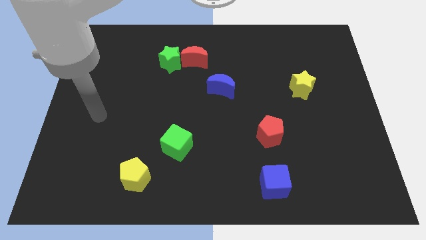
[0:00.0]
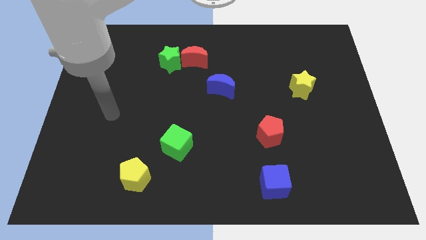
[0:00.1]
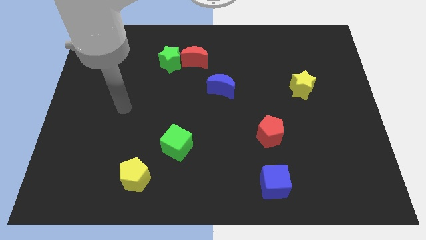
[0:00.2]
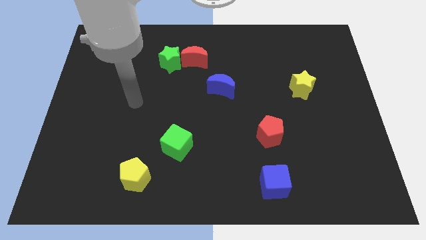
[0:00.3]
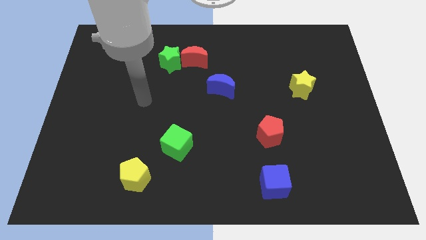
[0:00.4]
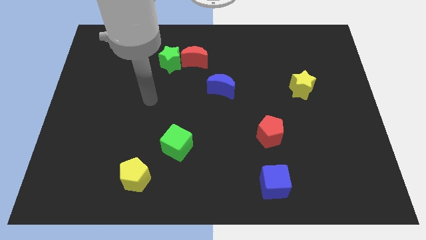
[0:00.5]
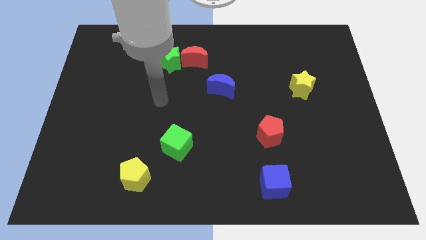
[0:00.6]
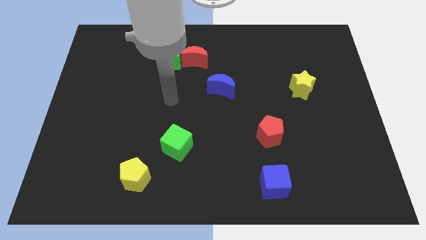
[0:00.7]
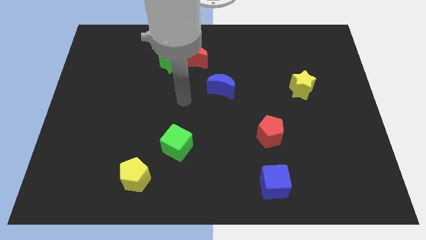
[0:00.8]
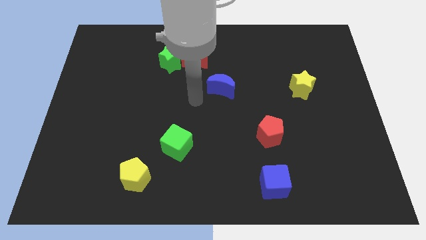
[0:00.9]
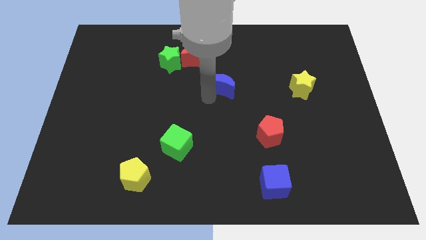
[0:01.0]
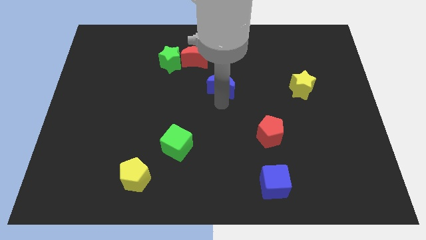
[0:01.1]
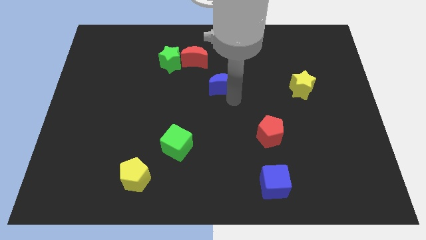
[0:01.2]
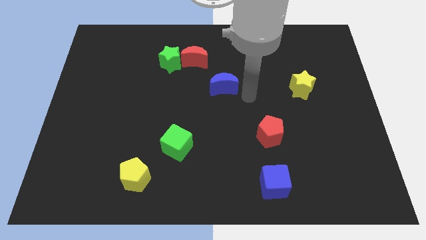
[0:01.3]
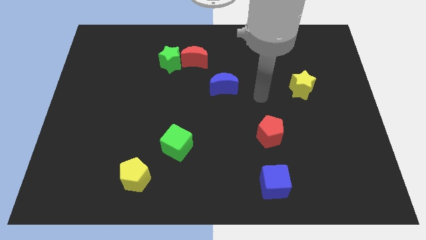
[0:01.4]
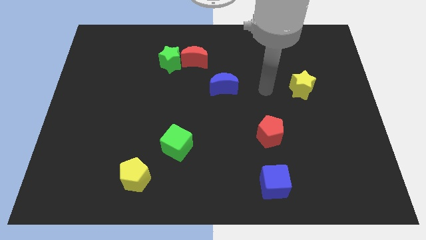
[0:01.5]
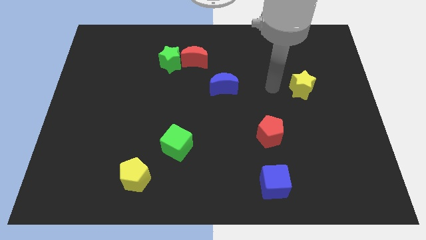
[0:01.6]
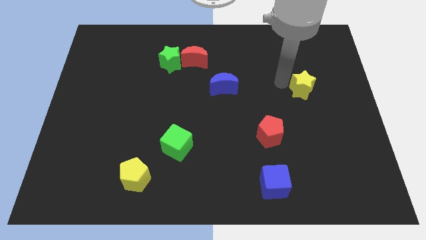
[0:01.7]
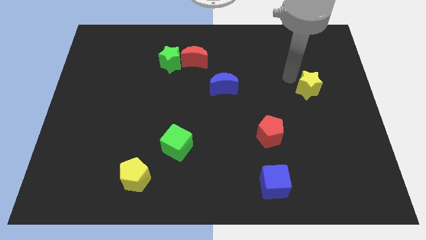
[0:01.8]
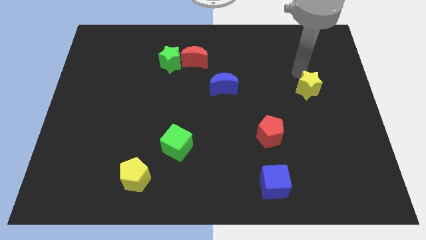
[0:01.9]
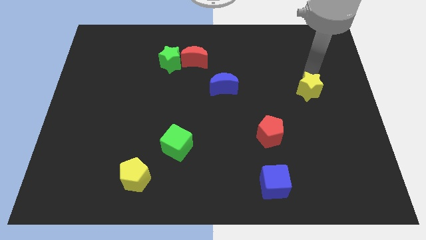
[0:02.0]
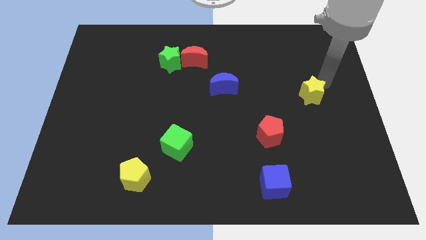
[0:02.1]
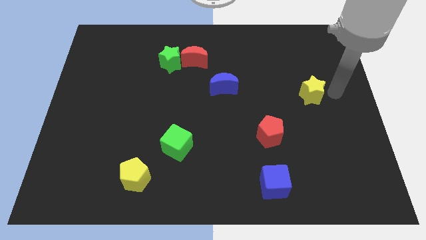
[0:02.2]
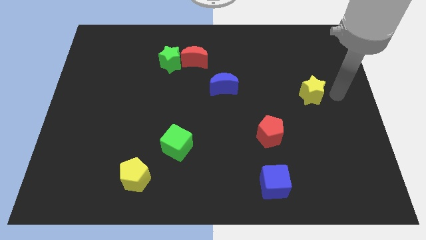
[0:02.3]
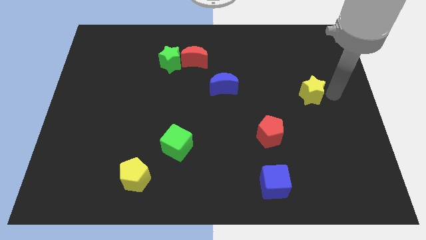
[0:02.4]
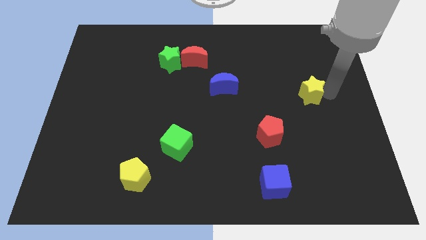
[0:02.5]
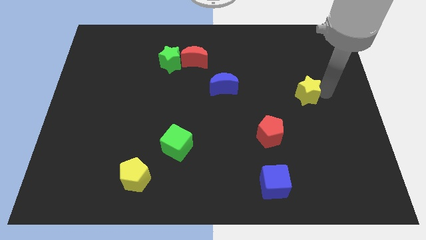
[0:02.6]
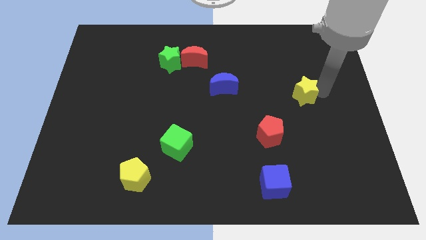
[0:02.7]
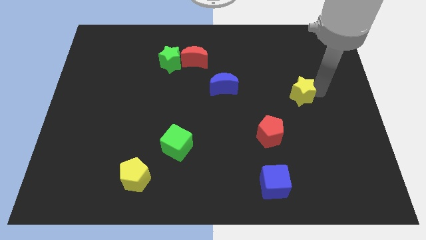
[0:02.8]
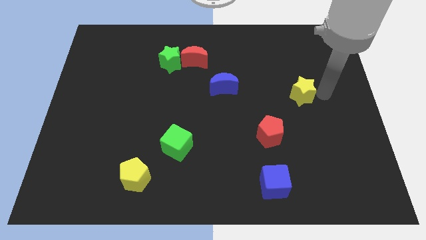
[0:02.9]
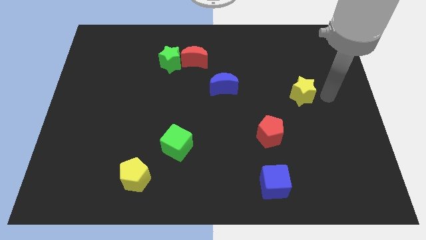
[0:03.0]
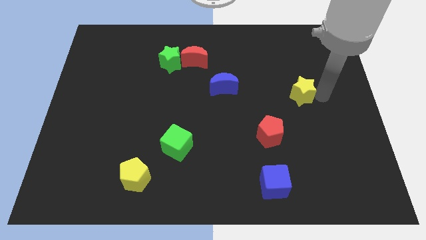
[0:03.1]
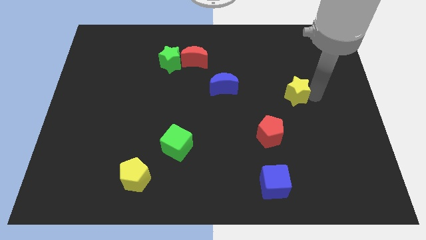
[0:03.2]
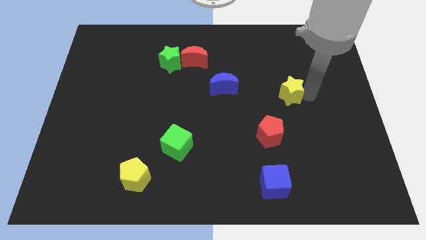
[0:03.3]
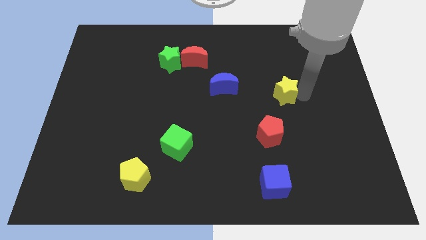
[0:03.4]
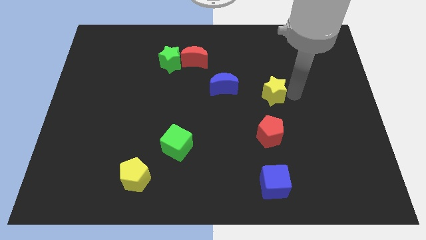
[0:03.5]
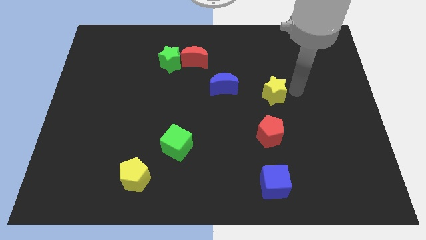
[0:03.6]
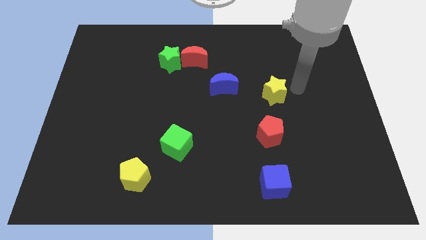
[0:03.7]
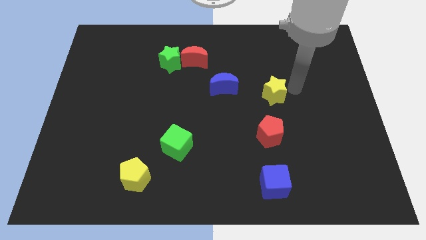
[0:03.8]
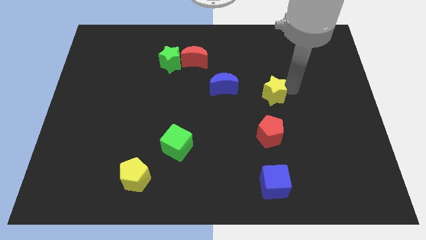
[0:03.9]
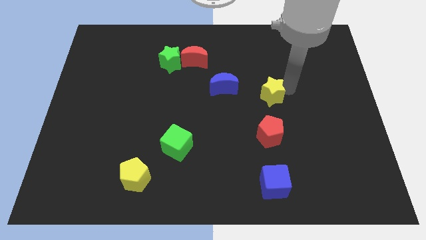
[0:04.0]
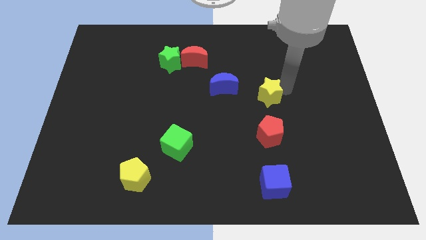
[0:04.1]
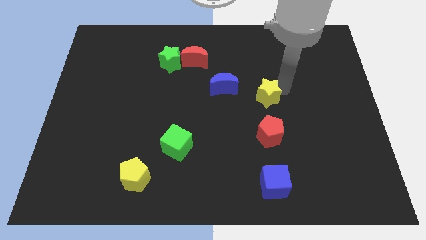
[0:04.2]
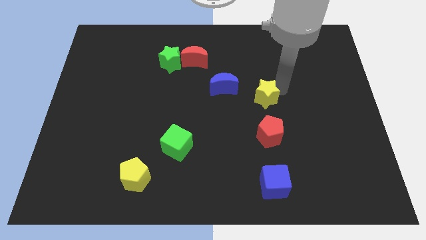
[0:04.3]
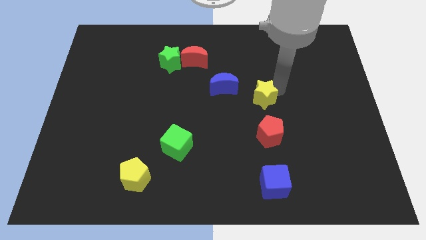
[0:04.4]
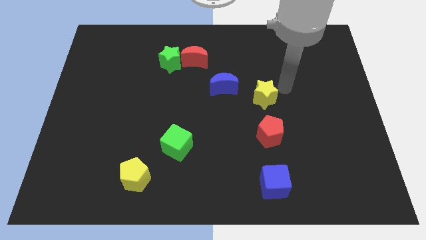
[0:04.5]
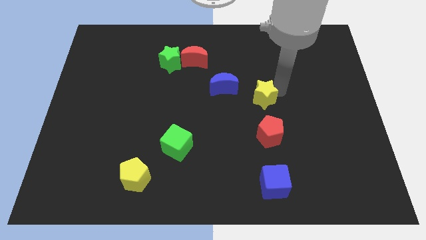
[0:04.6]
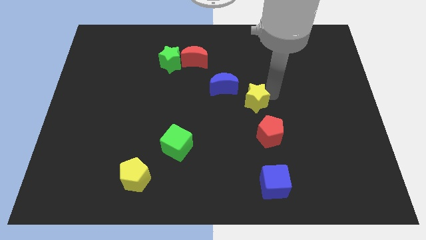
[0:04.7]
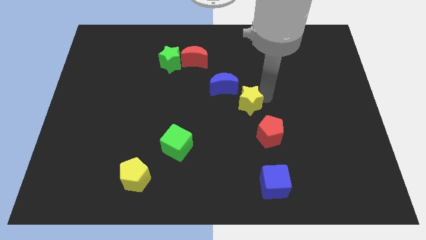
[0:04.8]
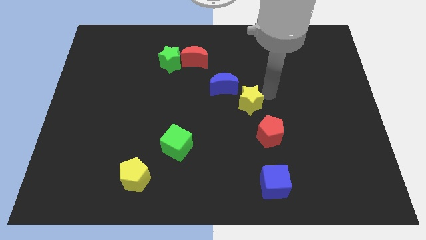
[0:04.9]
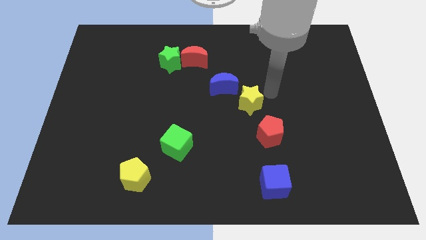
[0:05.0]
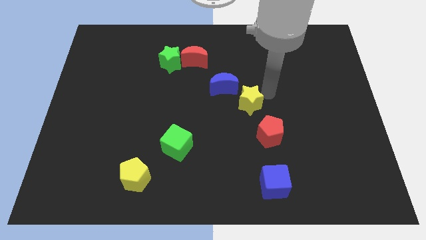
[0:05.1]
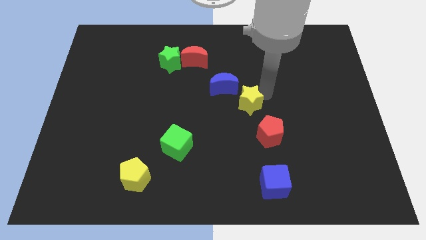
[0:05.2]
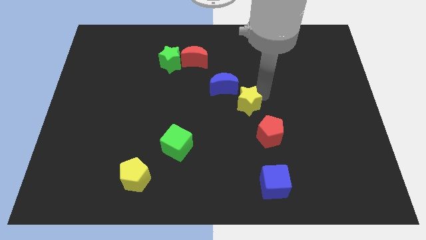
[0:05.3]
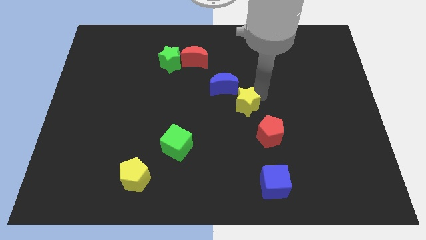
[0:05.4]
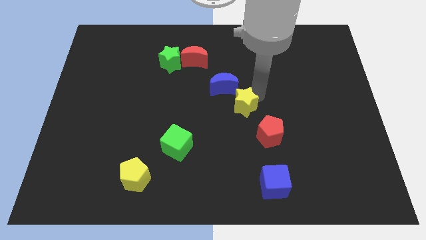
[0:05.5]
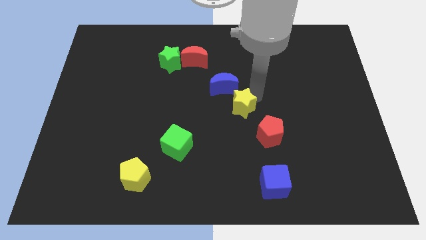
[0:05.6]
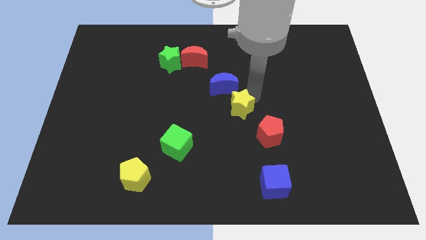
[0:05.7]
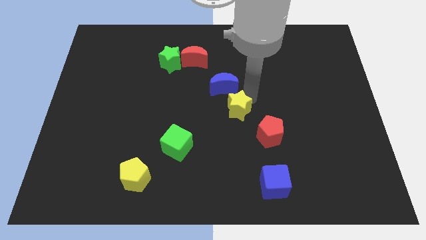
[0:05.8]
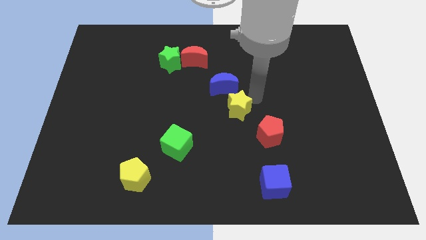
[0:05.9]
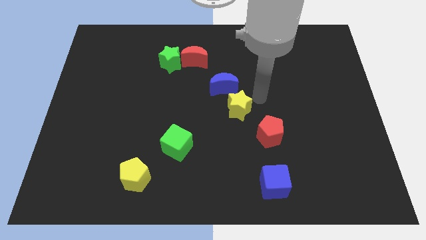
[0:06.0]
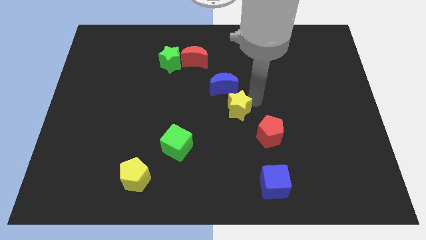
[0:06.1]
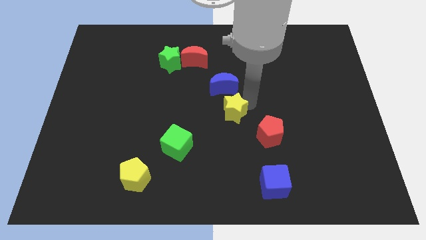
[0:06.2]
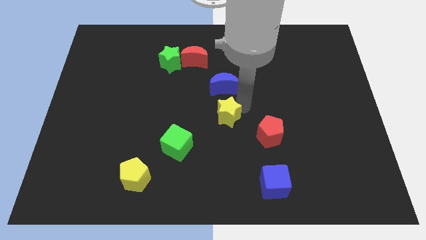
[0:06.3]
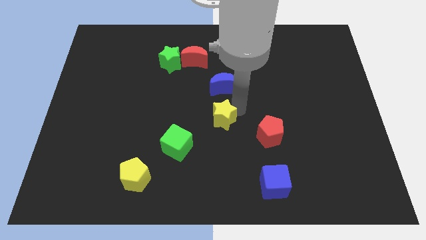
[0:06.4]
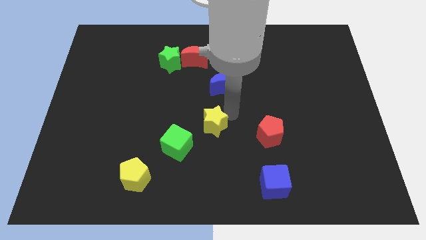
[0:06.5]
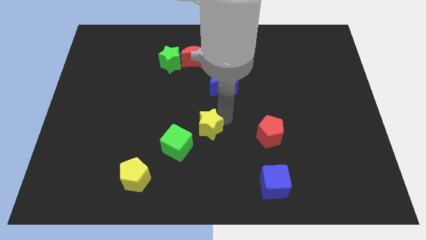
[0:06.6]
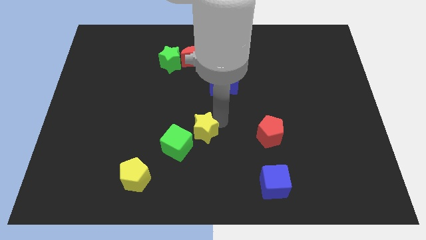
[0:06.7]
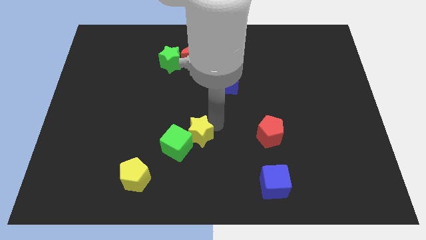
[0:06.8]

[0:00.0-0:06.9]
push the yellow star close to the green cube
